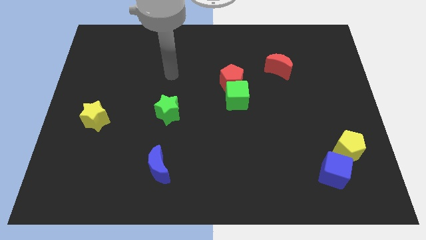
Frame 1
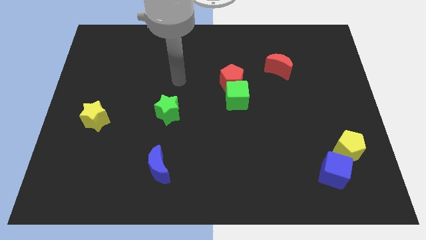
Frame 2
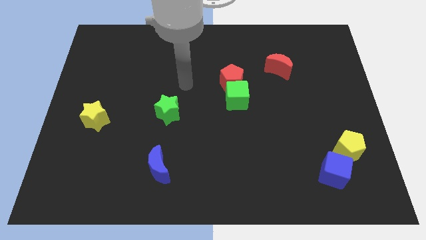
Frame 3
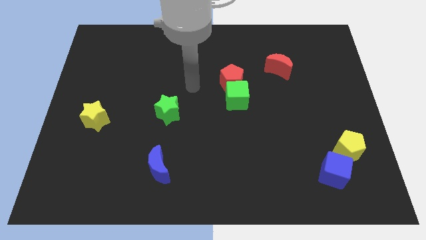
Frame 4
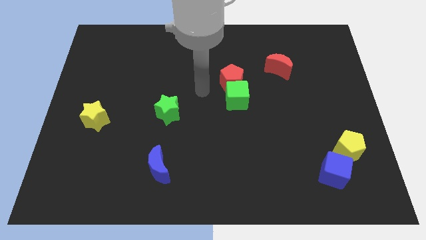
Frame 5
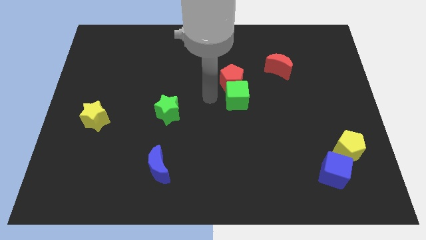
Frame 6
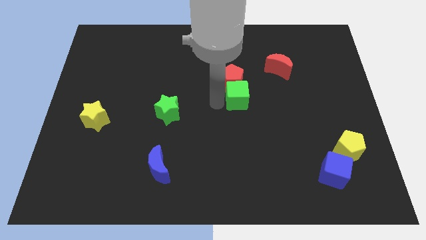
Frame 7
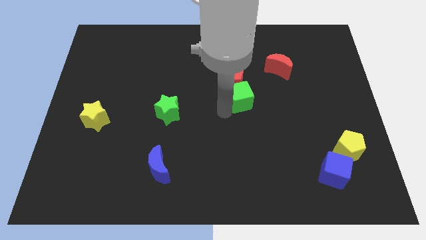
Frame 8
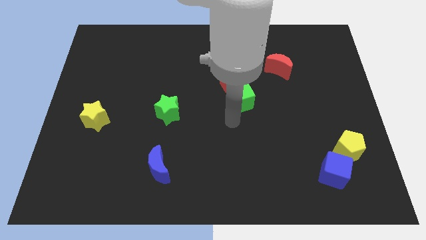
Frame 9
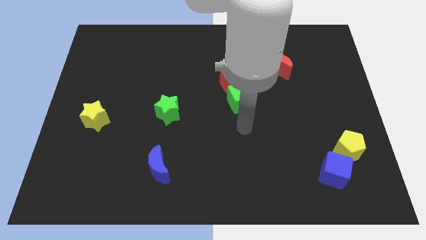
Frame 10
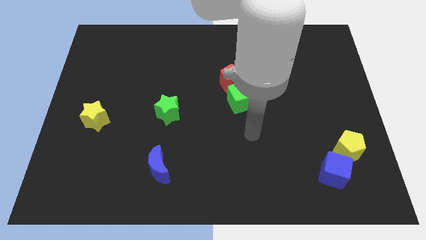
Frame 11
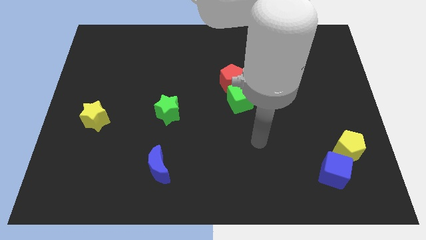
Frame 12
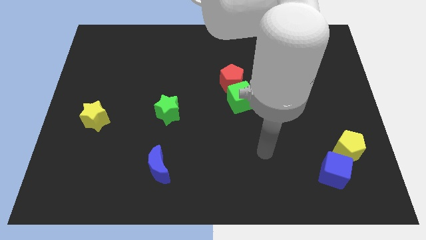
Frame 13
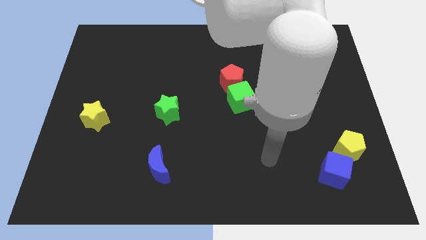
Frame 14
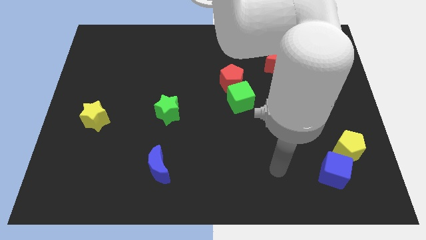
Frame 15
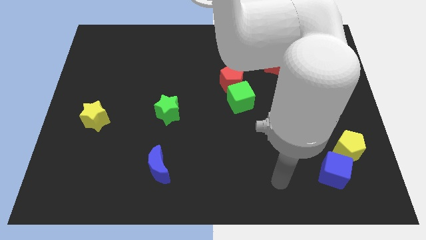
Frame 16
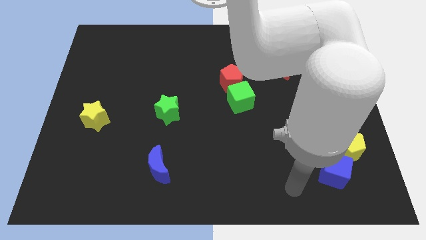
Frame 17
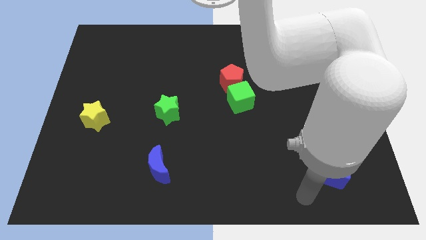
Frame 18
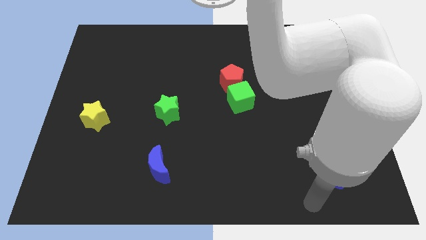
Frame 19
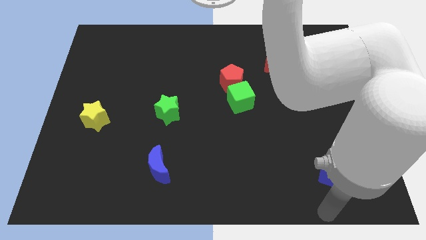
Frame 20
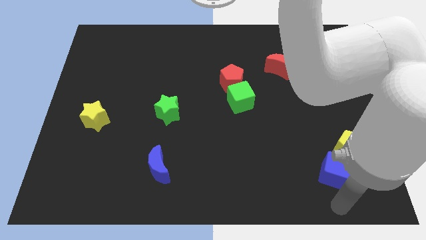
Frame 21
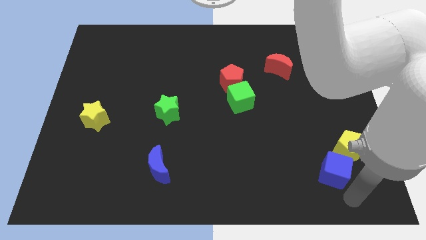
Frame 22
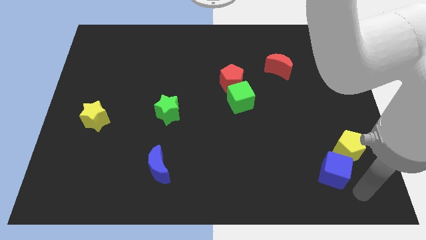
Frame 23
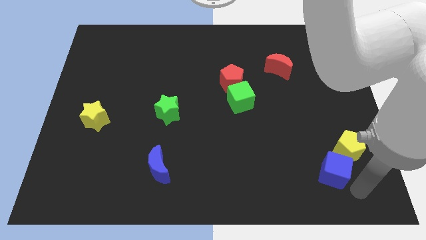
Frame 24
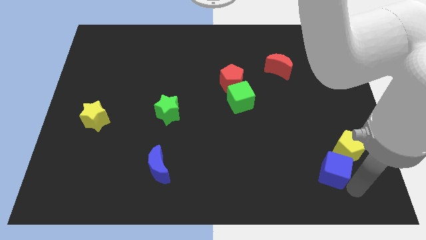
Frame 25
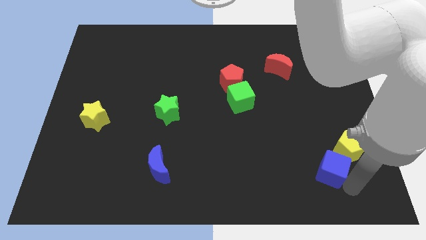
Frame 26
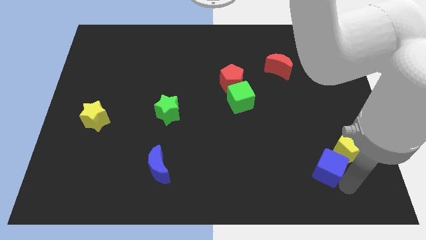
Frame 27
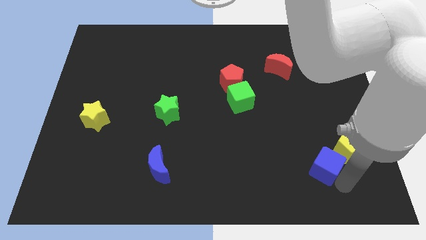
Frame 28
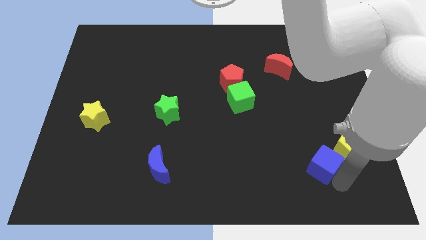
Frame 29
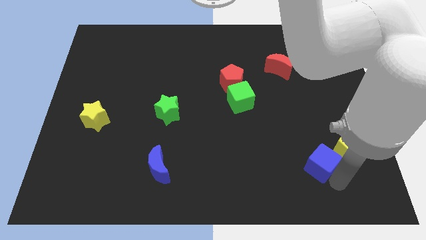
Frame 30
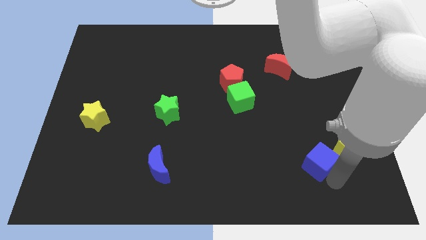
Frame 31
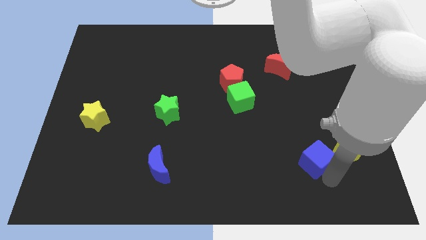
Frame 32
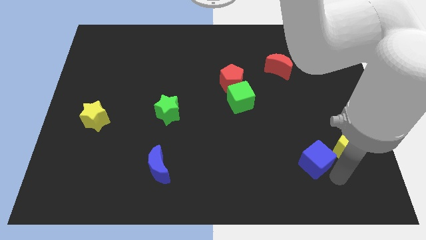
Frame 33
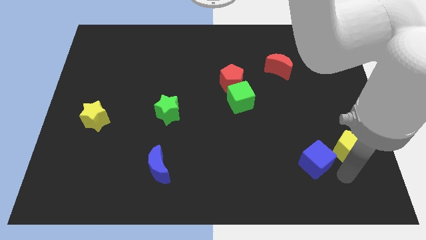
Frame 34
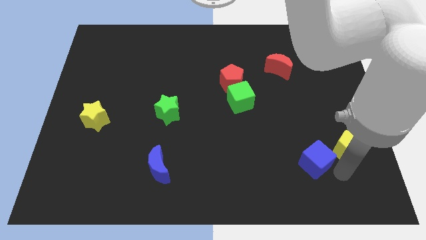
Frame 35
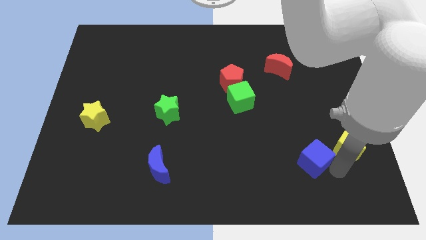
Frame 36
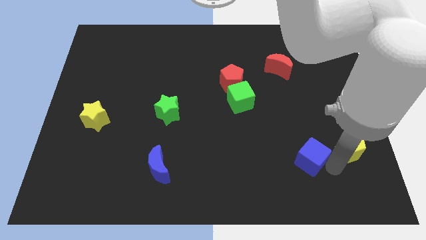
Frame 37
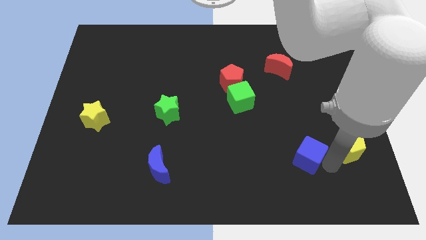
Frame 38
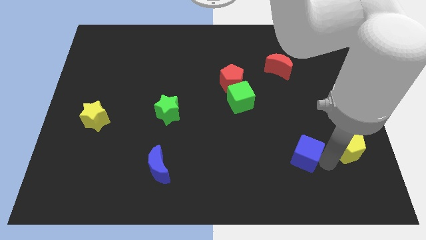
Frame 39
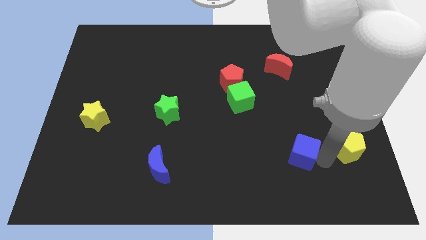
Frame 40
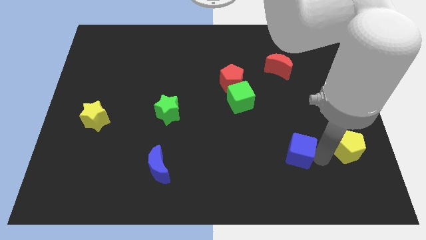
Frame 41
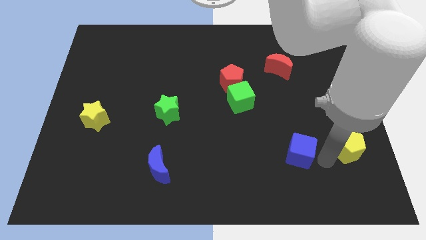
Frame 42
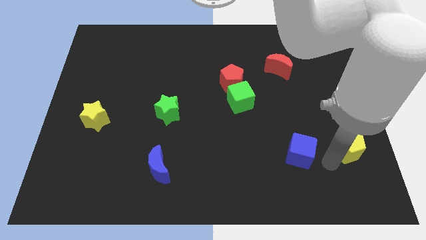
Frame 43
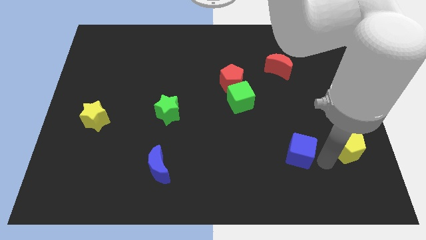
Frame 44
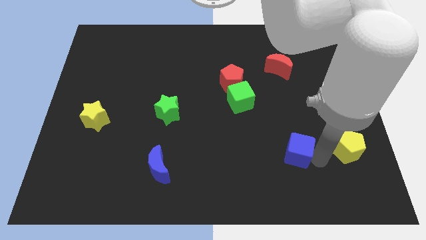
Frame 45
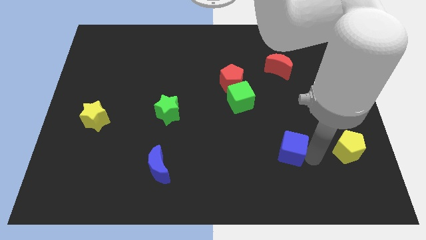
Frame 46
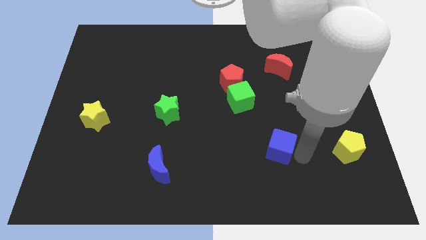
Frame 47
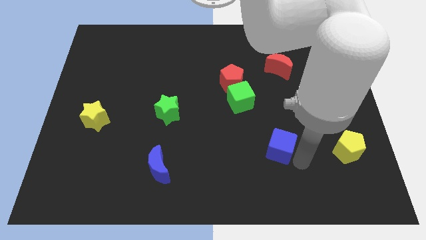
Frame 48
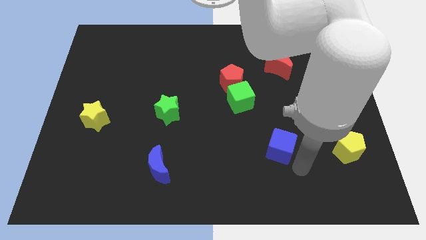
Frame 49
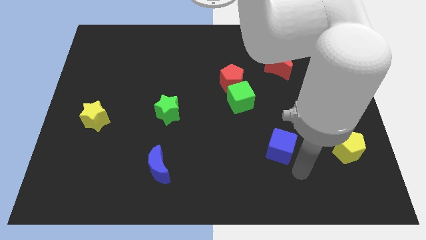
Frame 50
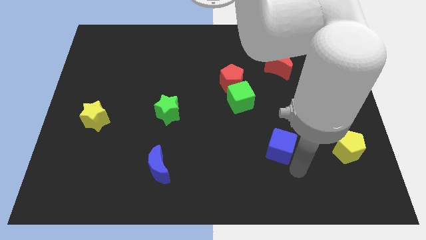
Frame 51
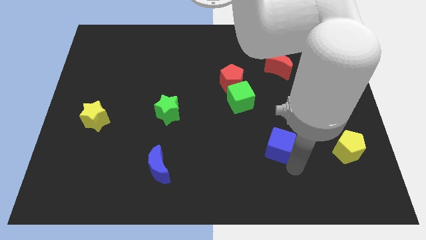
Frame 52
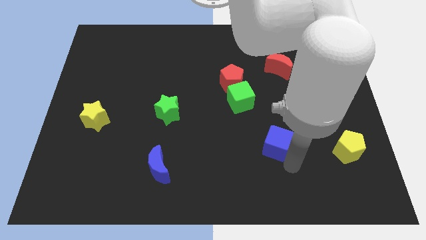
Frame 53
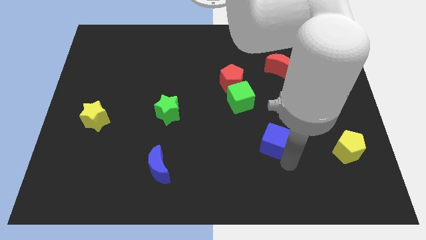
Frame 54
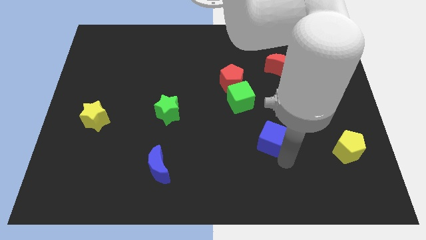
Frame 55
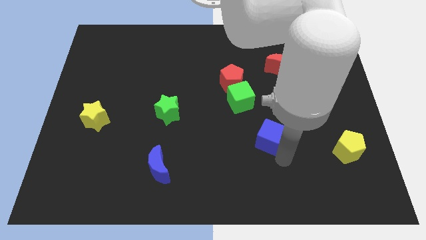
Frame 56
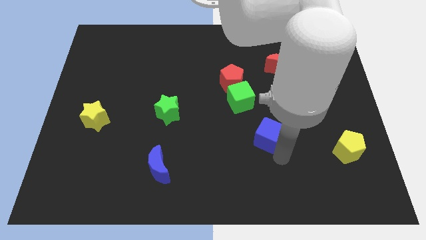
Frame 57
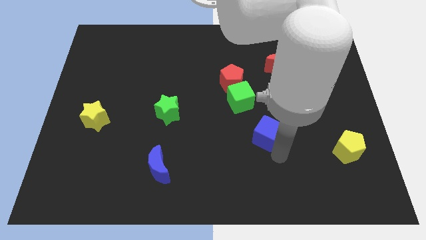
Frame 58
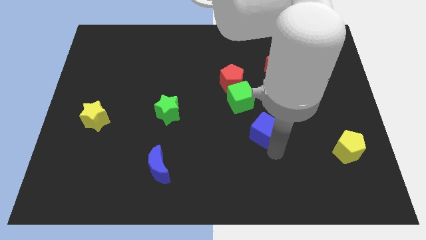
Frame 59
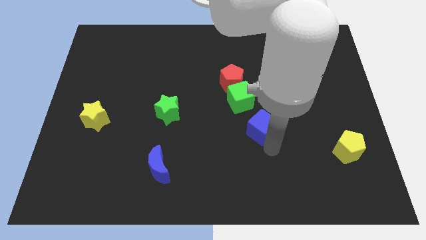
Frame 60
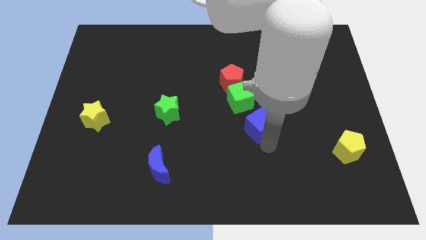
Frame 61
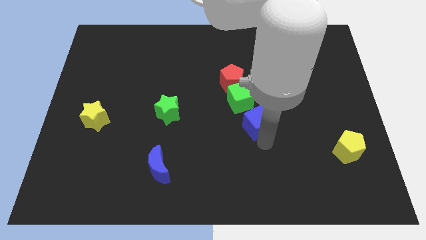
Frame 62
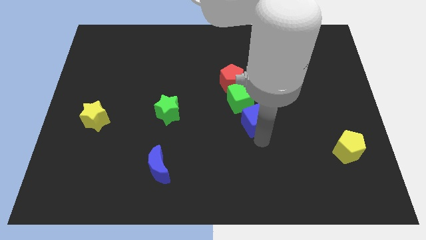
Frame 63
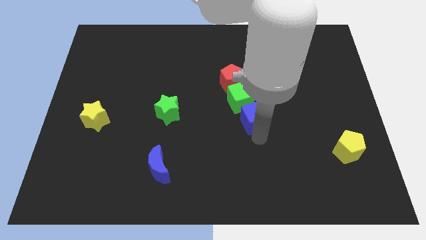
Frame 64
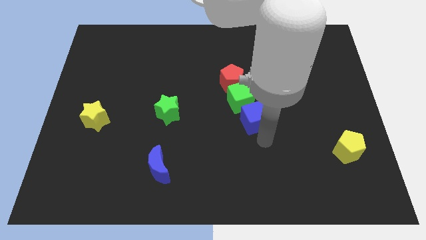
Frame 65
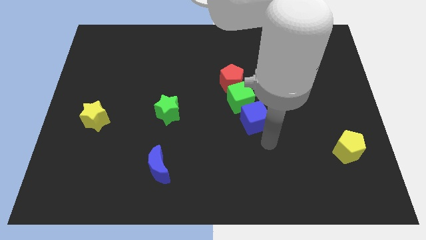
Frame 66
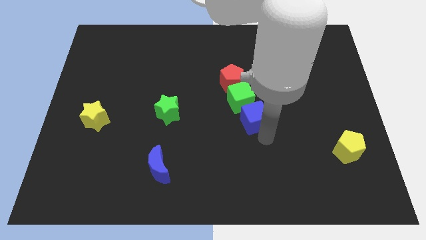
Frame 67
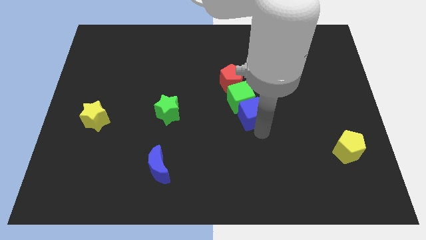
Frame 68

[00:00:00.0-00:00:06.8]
move the blue cube to the green cube
